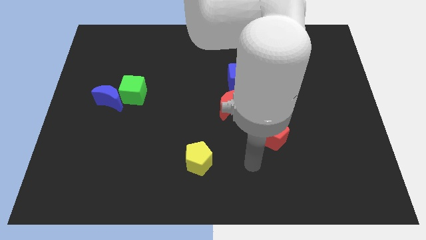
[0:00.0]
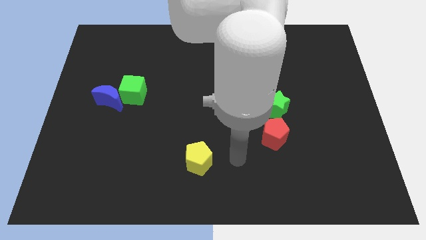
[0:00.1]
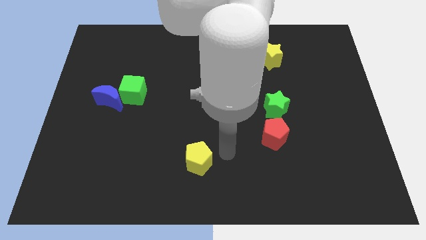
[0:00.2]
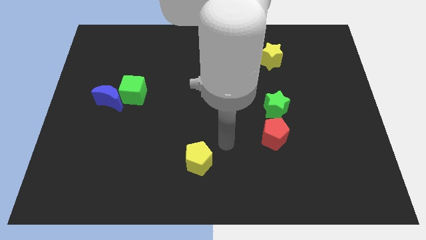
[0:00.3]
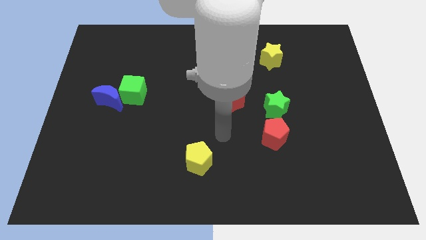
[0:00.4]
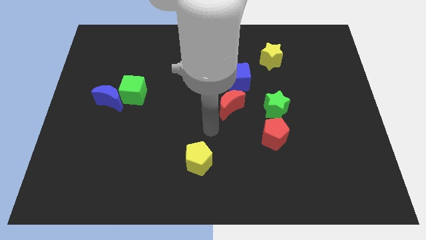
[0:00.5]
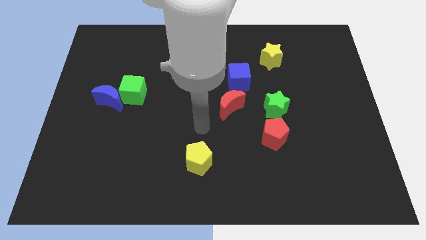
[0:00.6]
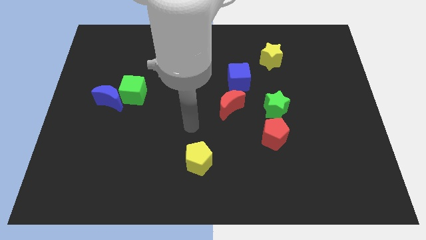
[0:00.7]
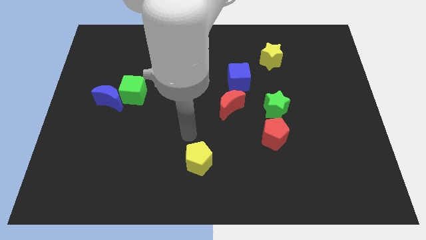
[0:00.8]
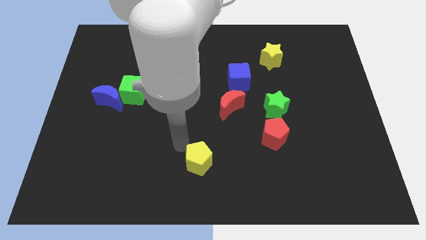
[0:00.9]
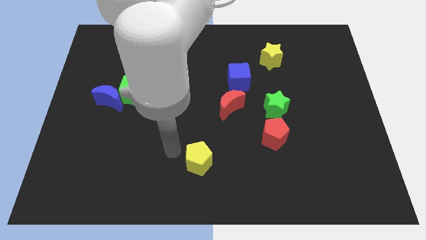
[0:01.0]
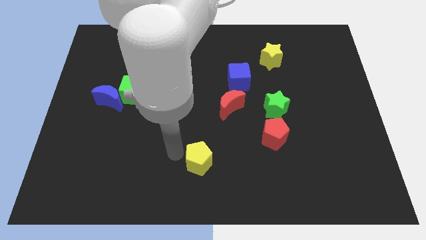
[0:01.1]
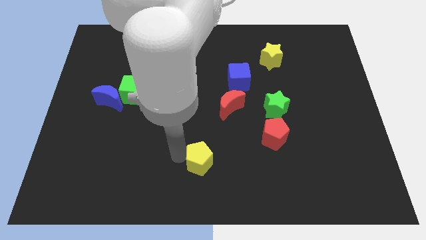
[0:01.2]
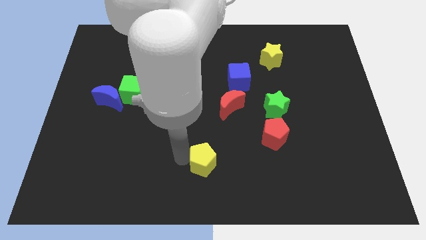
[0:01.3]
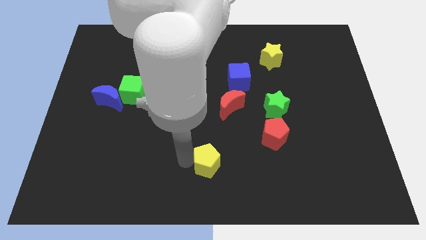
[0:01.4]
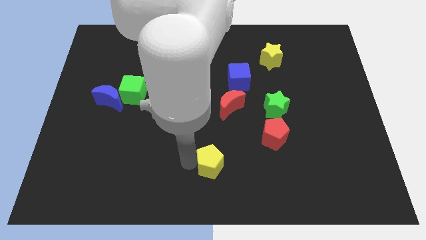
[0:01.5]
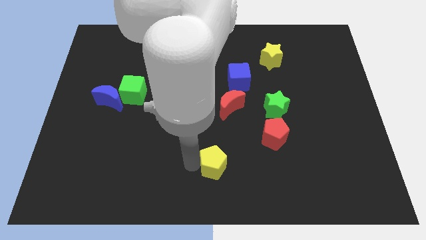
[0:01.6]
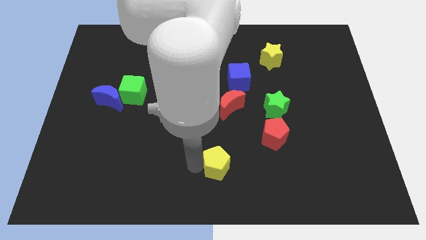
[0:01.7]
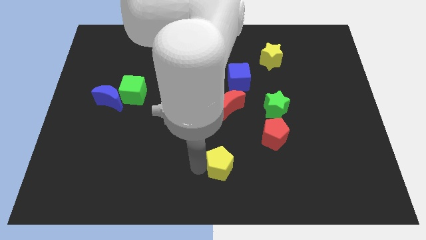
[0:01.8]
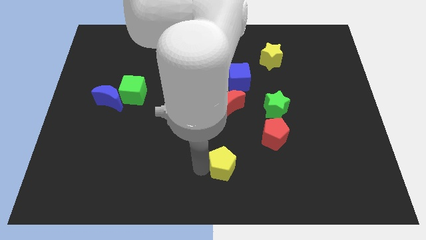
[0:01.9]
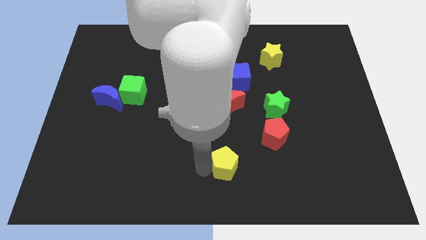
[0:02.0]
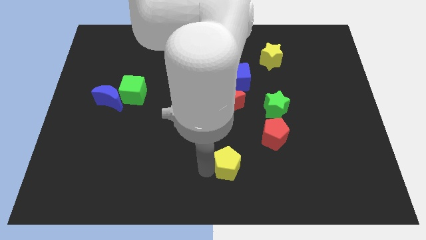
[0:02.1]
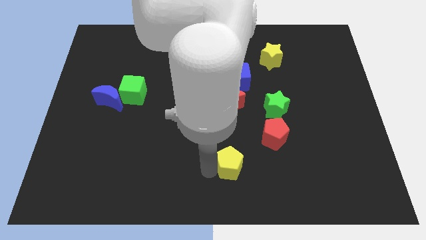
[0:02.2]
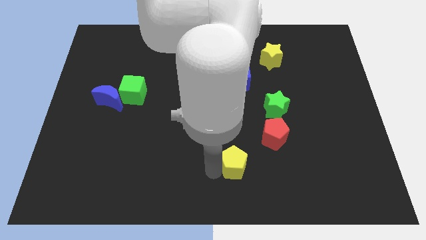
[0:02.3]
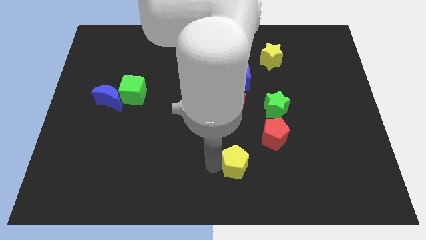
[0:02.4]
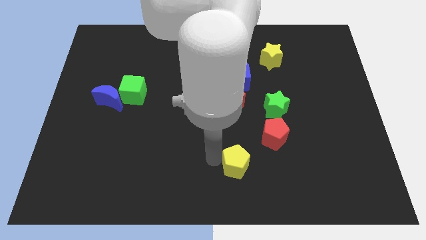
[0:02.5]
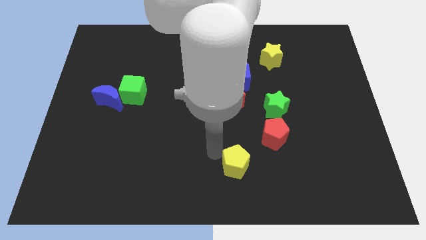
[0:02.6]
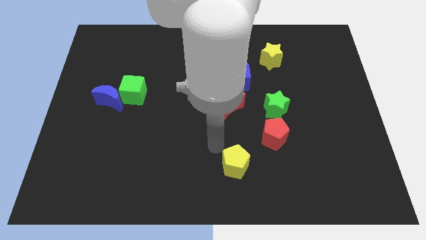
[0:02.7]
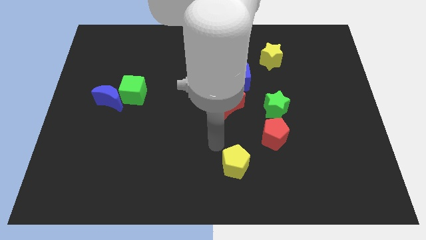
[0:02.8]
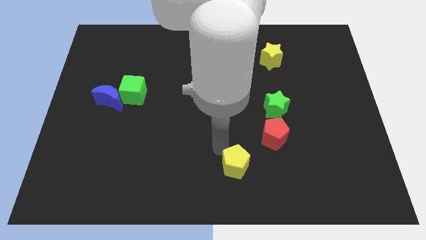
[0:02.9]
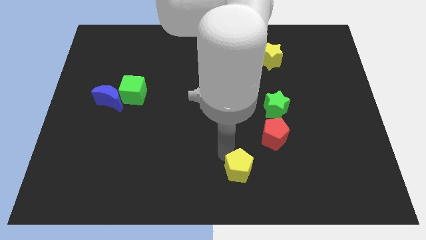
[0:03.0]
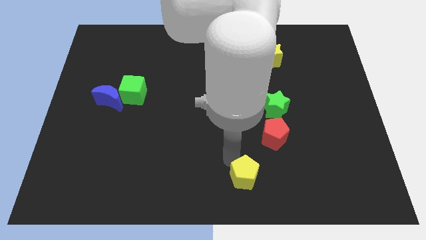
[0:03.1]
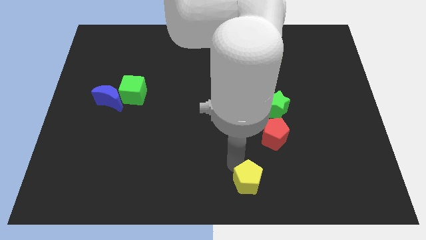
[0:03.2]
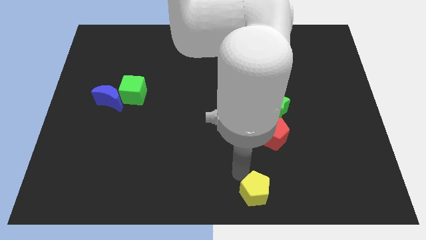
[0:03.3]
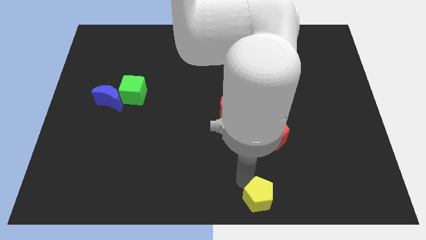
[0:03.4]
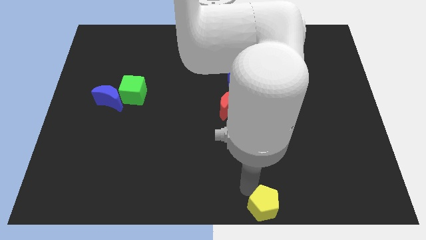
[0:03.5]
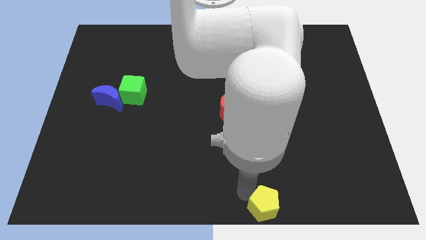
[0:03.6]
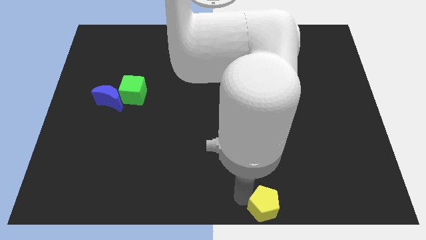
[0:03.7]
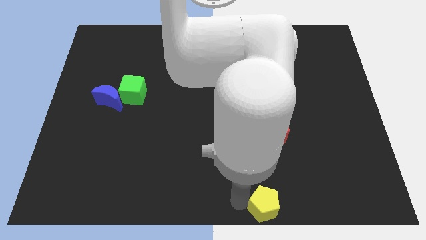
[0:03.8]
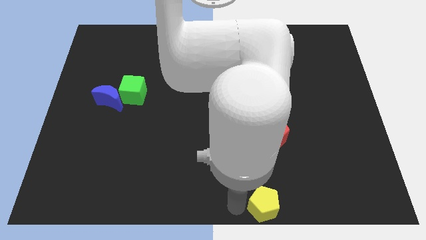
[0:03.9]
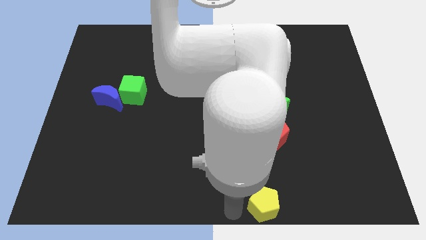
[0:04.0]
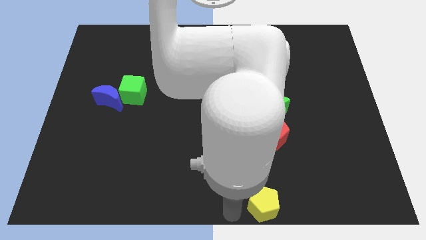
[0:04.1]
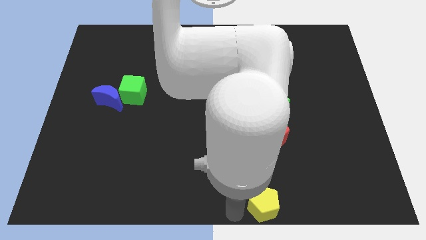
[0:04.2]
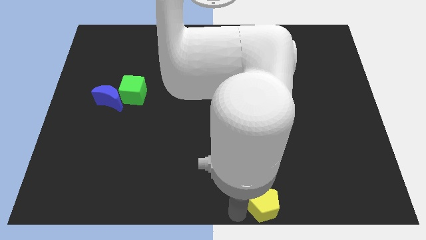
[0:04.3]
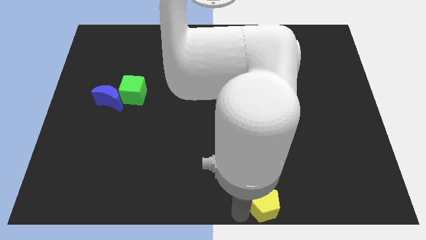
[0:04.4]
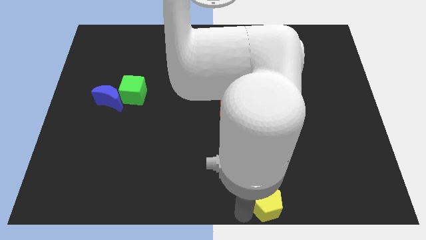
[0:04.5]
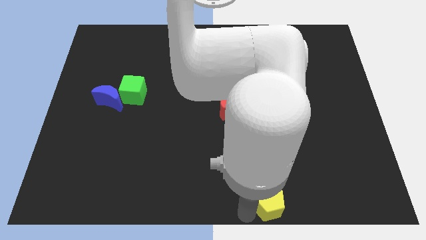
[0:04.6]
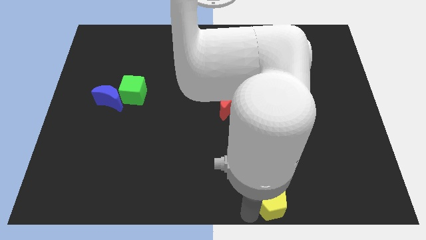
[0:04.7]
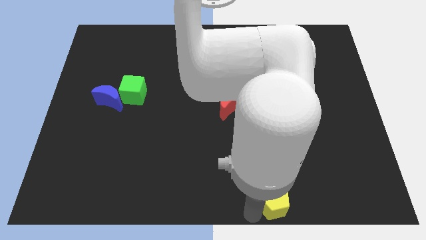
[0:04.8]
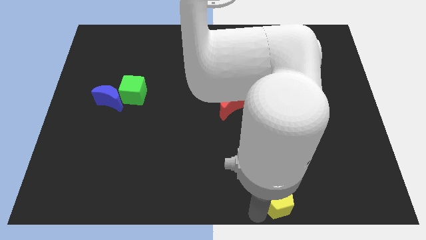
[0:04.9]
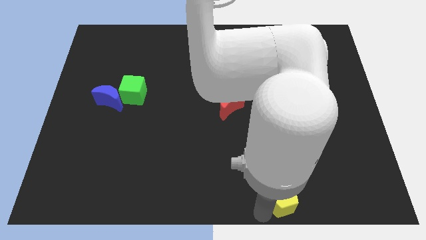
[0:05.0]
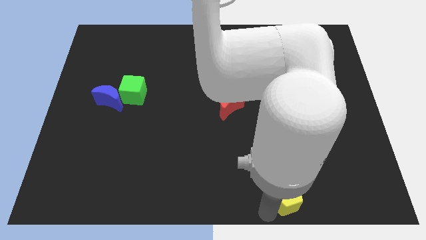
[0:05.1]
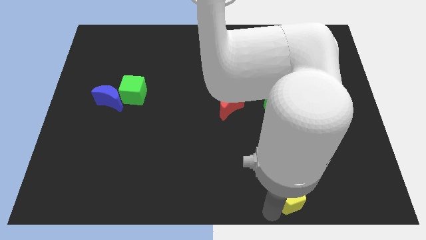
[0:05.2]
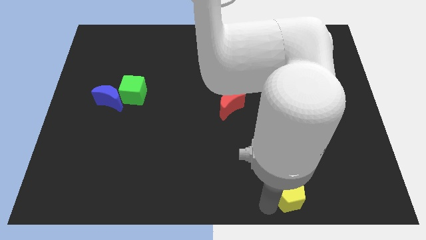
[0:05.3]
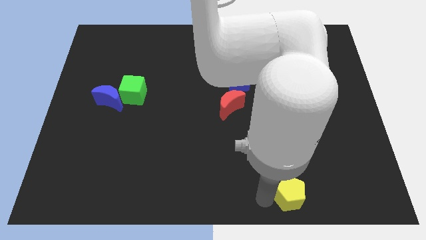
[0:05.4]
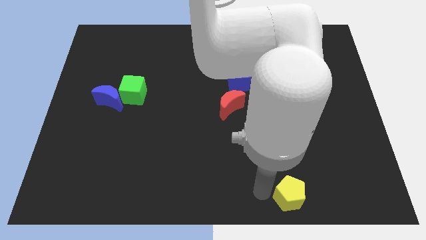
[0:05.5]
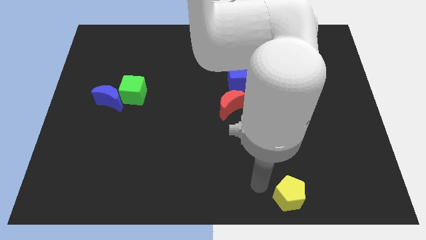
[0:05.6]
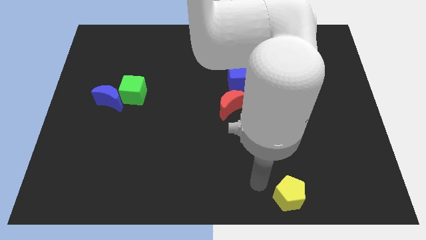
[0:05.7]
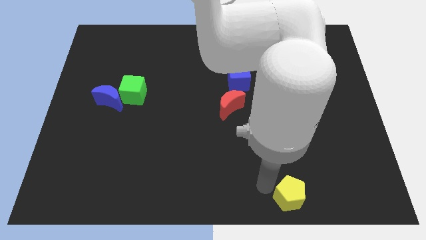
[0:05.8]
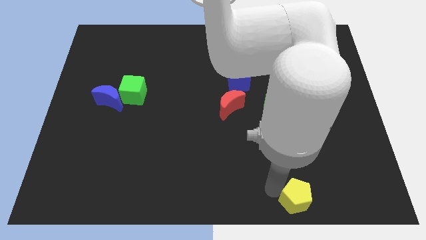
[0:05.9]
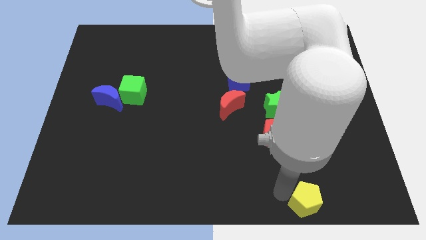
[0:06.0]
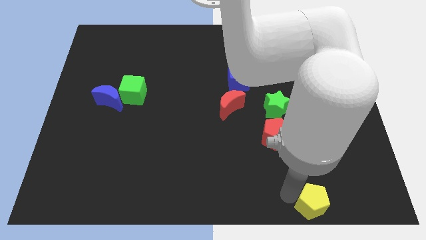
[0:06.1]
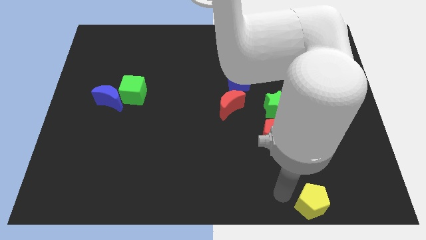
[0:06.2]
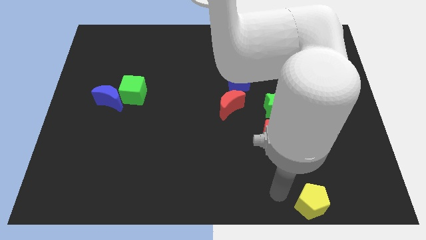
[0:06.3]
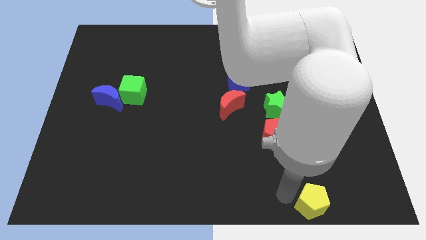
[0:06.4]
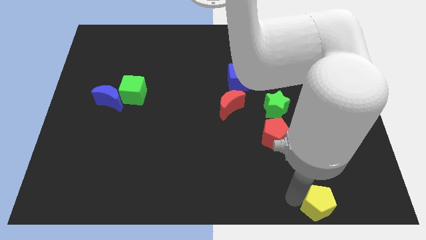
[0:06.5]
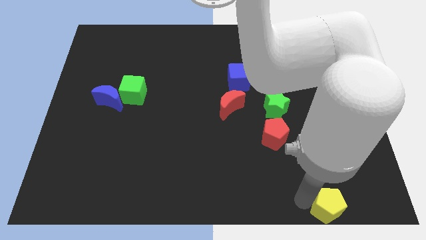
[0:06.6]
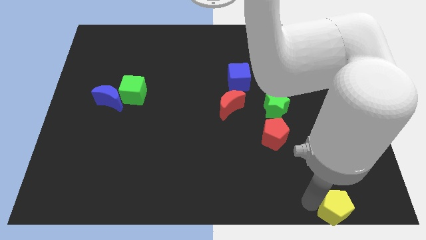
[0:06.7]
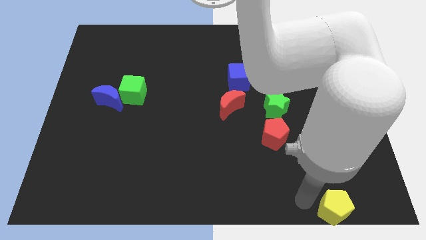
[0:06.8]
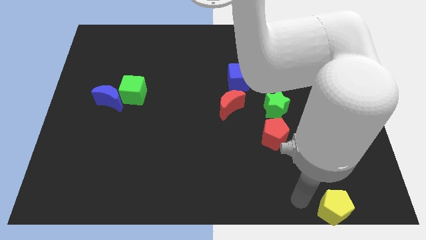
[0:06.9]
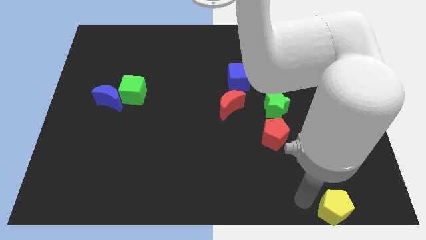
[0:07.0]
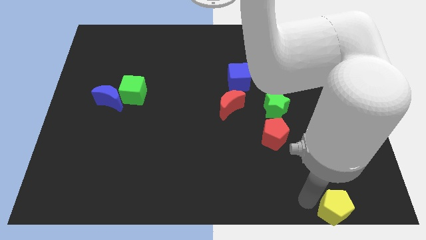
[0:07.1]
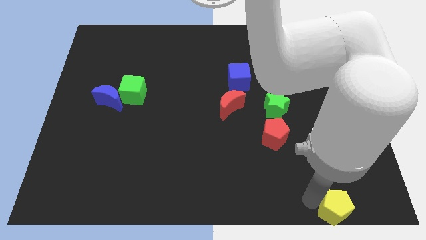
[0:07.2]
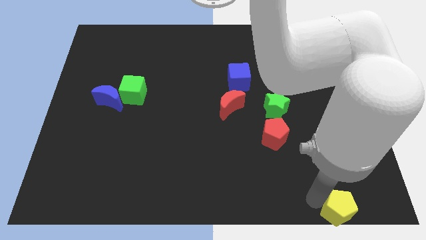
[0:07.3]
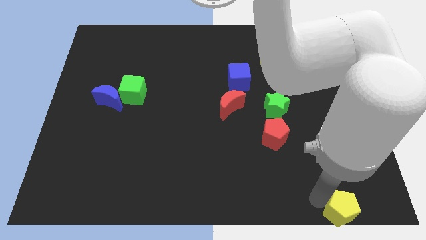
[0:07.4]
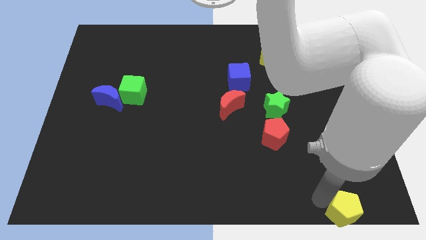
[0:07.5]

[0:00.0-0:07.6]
push the yellow pentagon to the bottom right of the board
